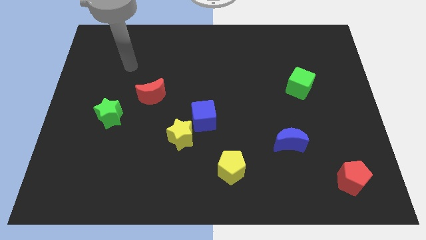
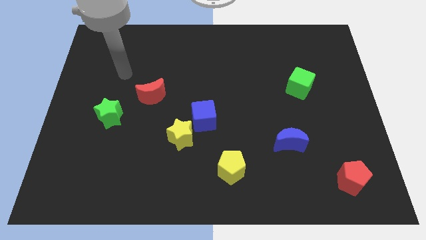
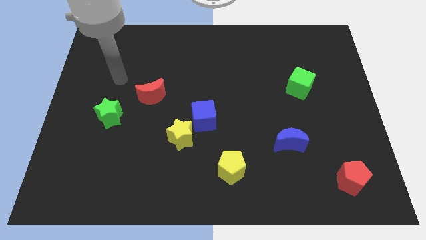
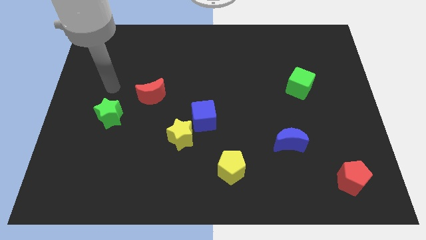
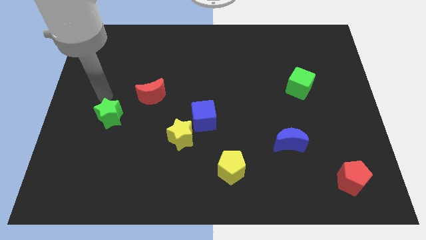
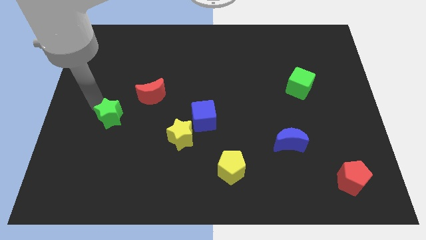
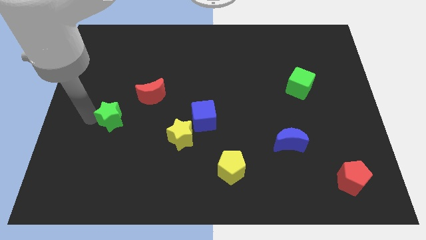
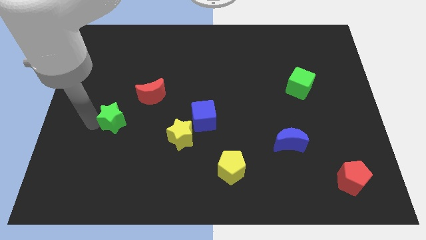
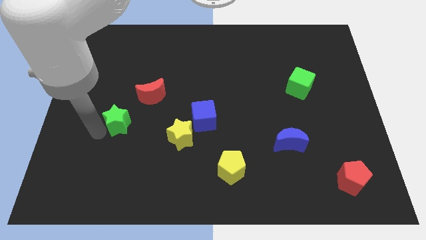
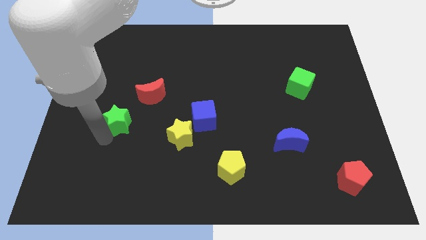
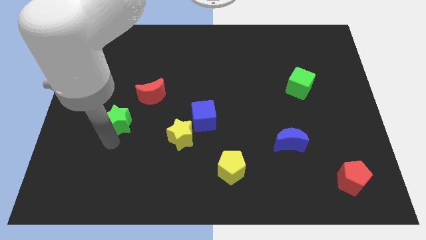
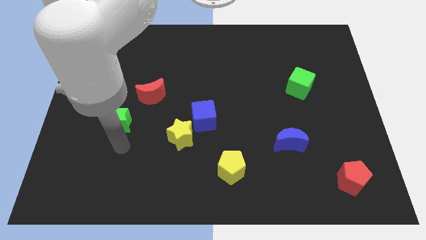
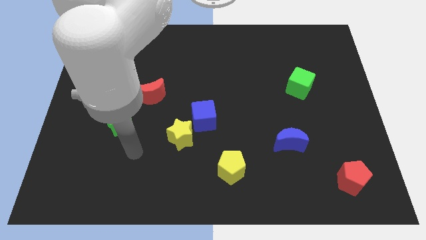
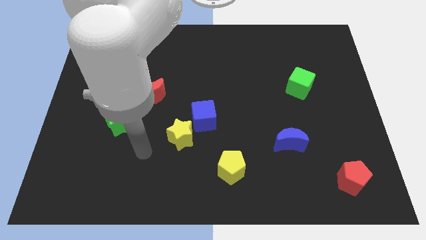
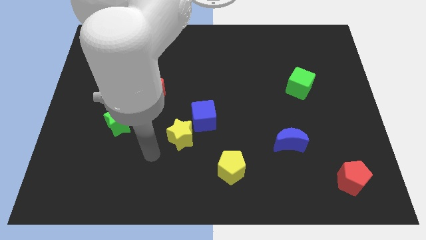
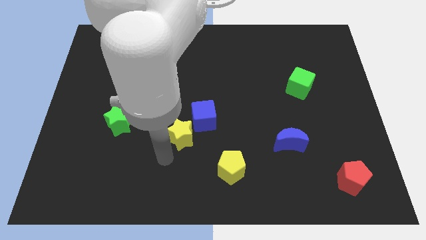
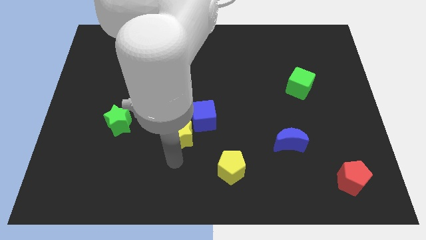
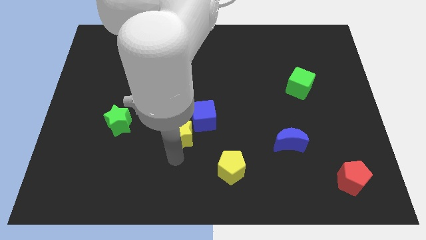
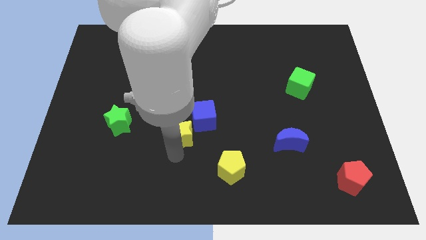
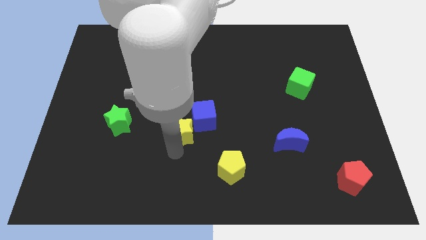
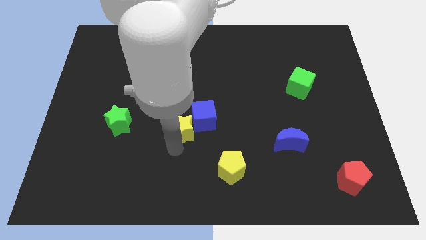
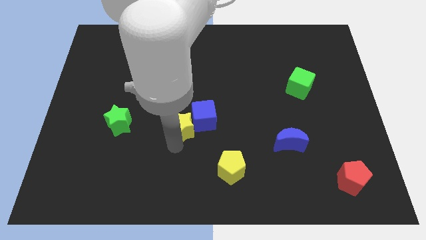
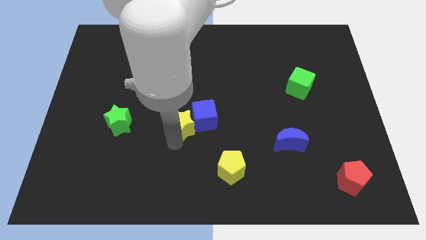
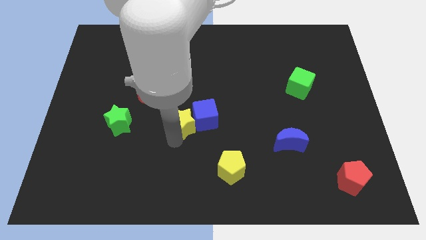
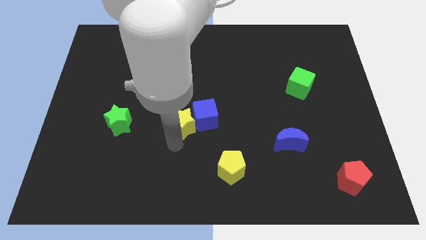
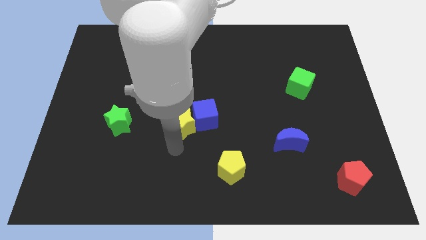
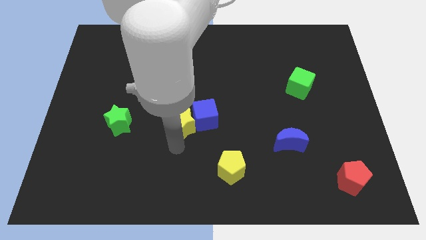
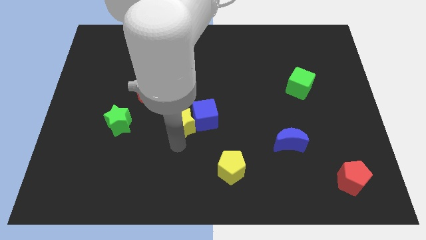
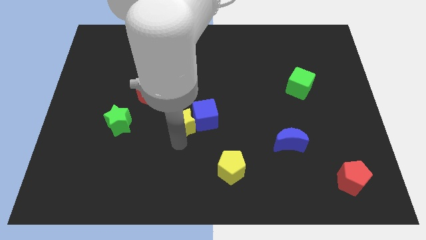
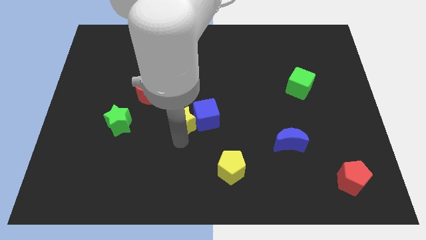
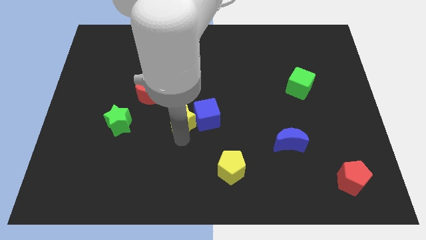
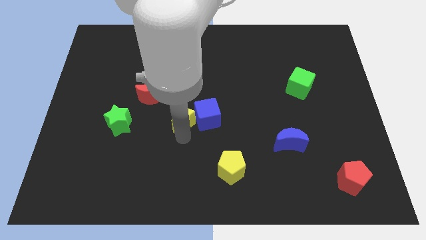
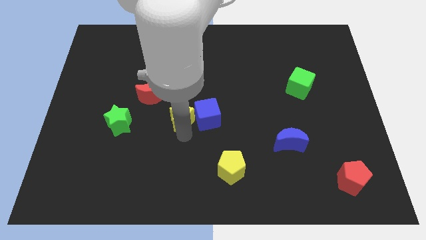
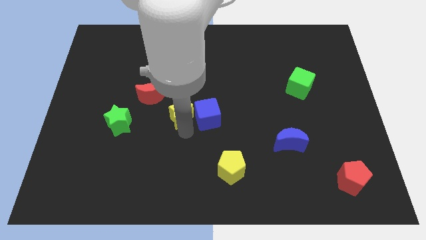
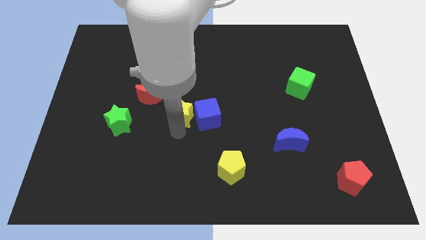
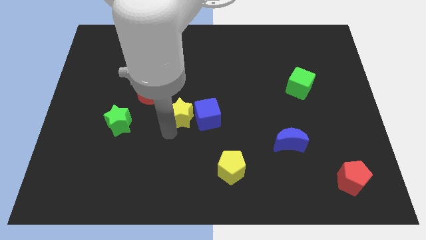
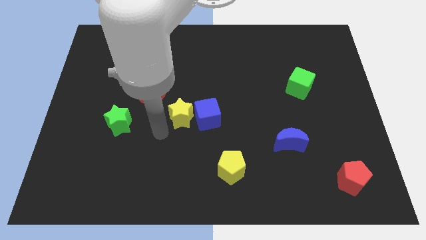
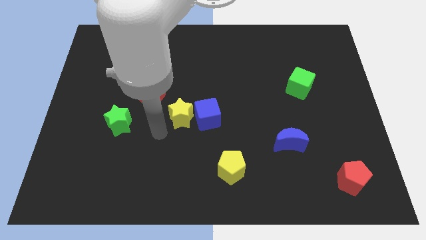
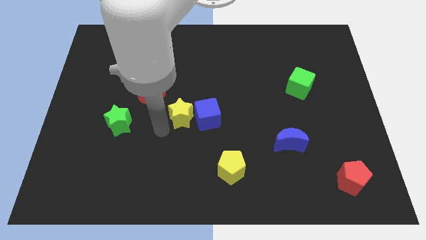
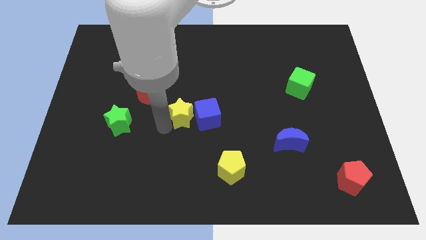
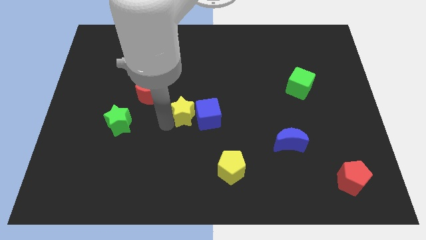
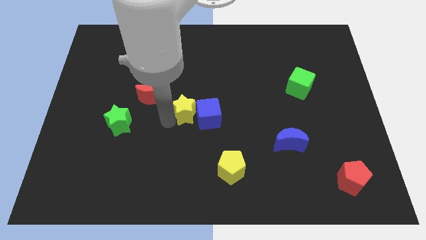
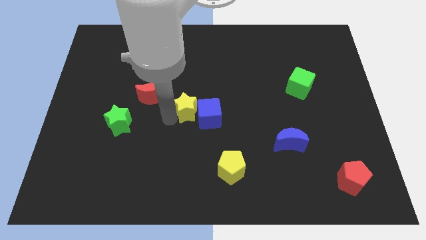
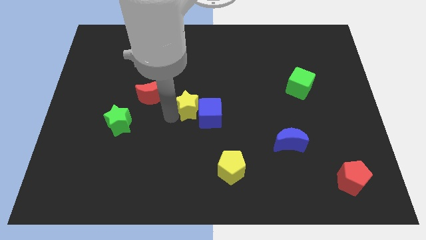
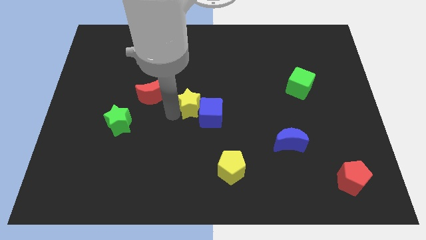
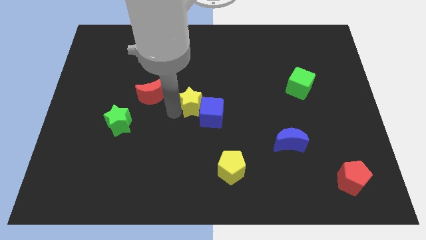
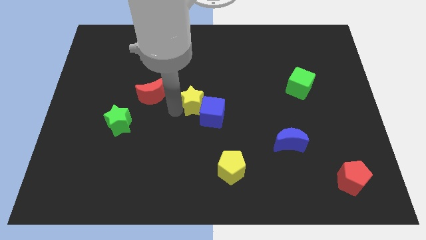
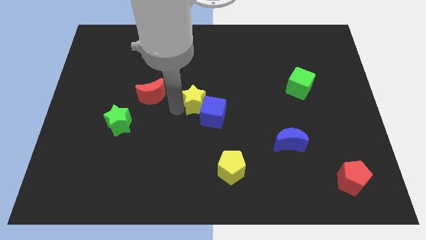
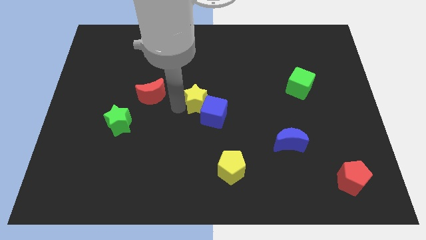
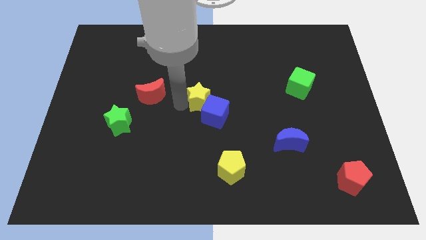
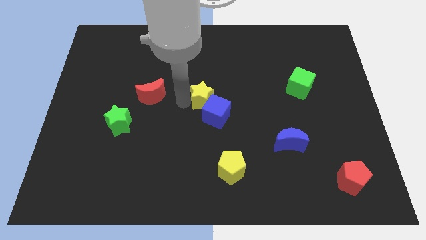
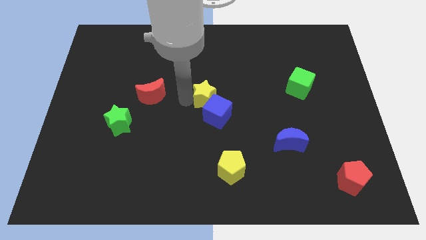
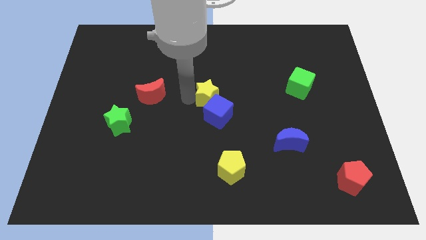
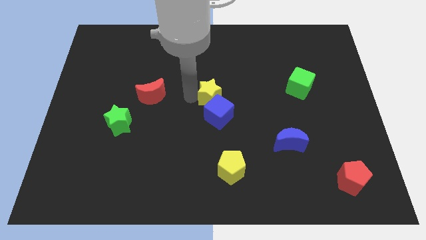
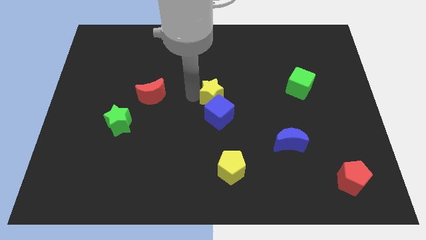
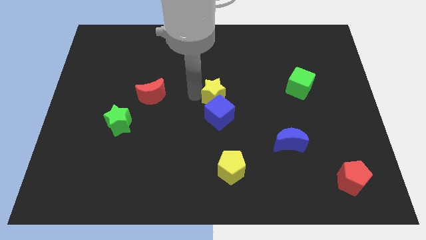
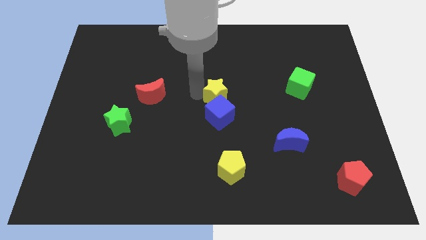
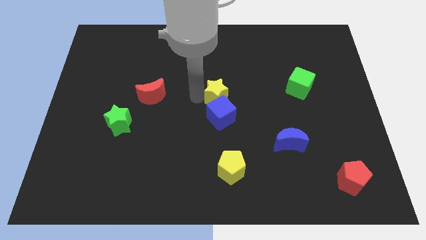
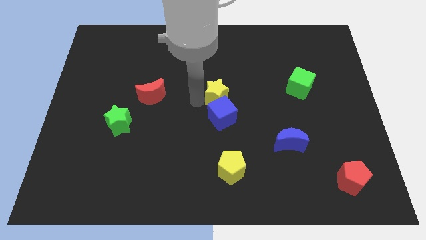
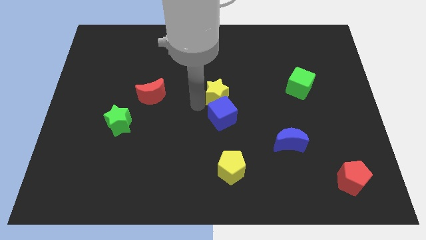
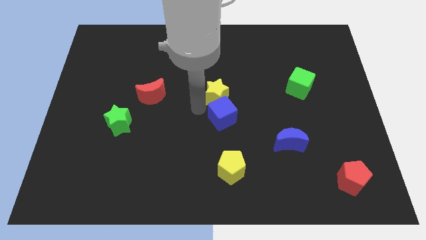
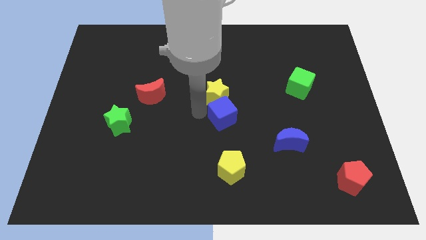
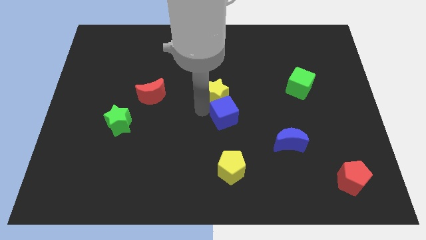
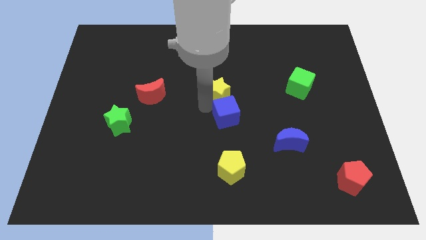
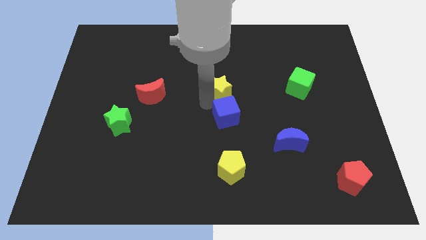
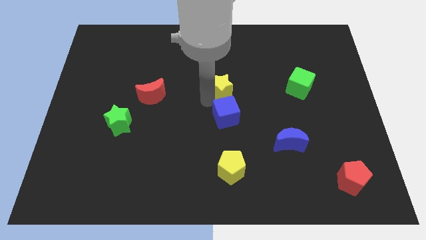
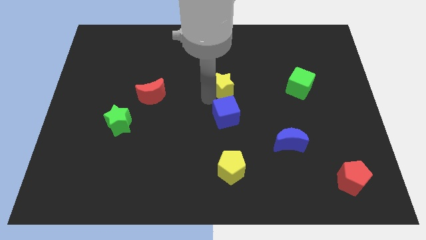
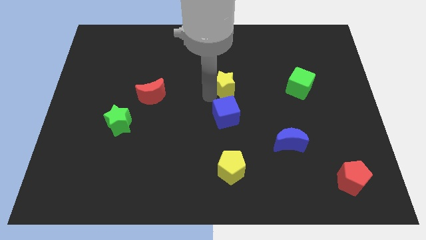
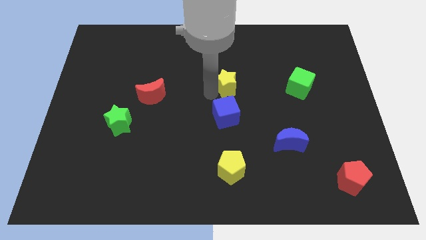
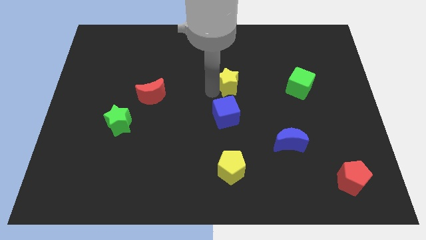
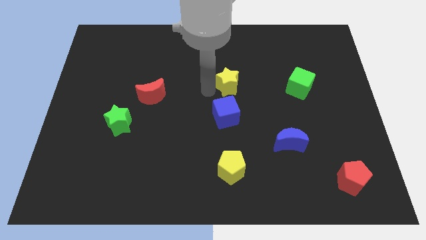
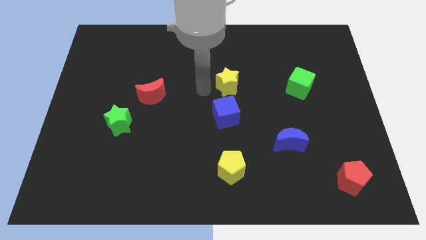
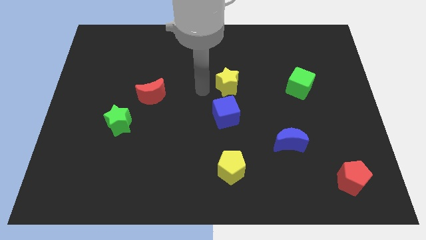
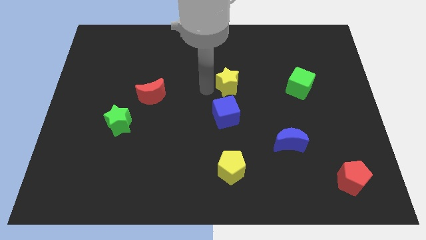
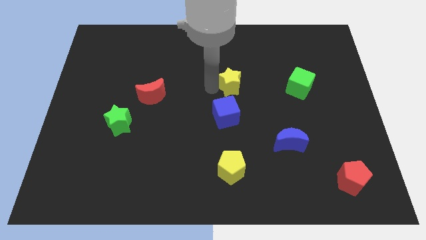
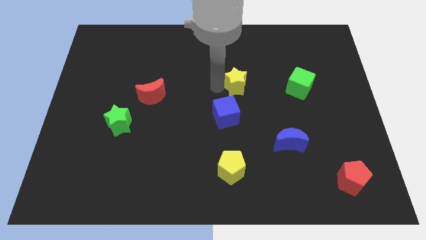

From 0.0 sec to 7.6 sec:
push the yellow star up and right

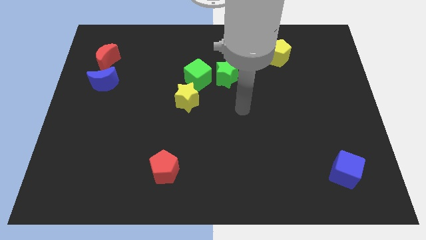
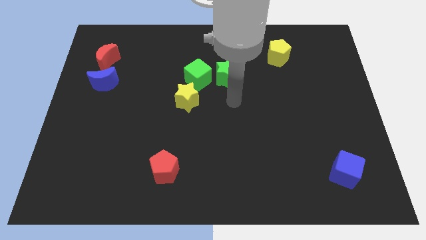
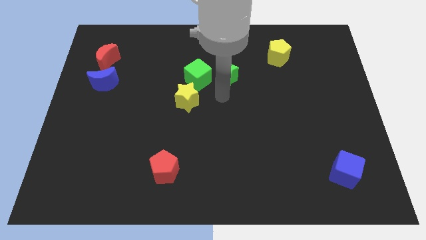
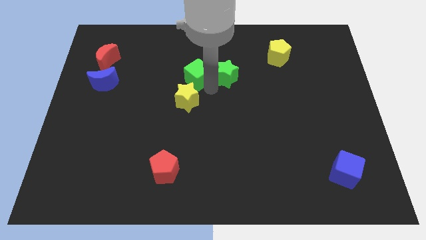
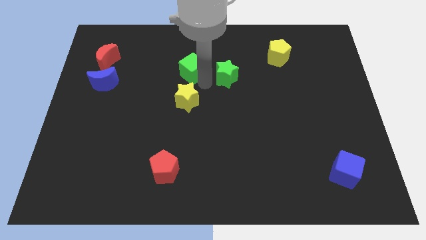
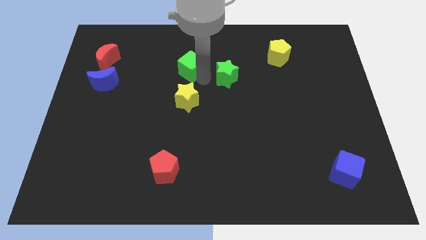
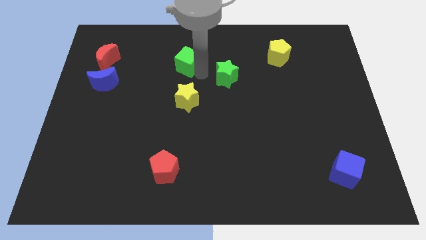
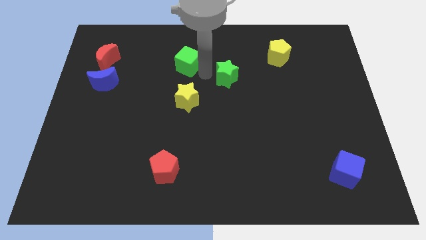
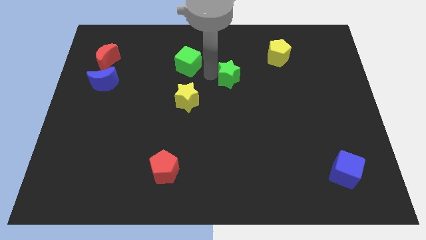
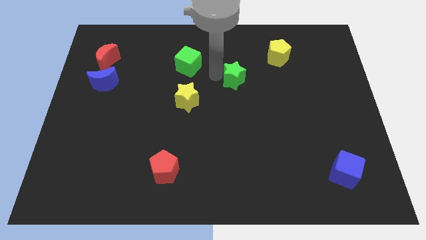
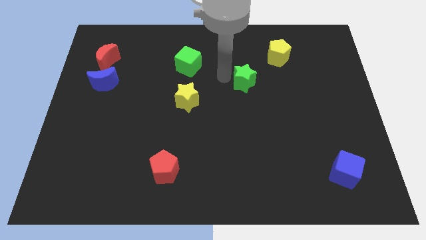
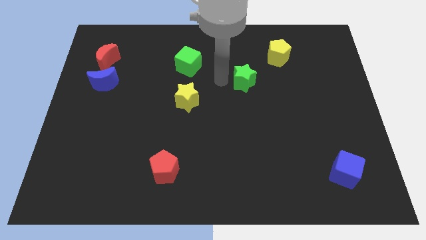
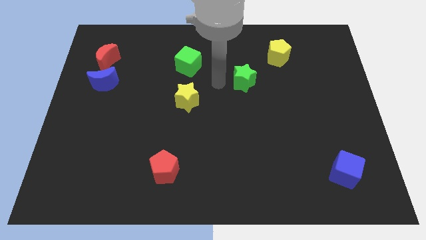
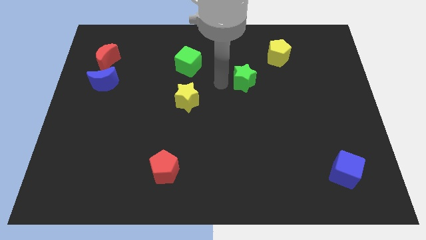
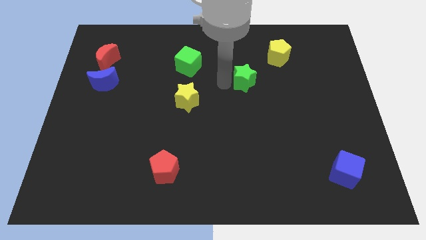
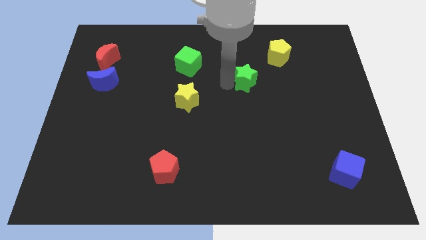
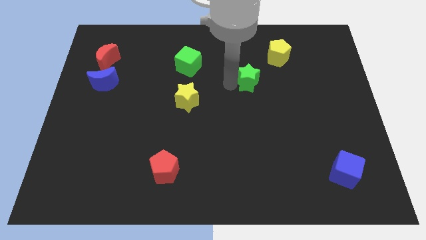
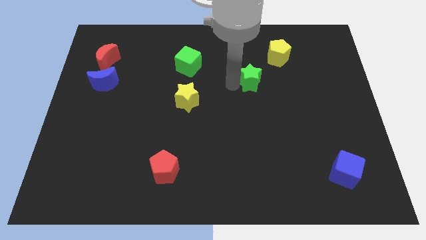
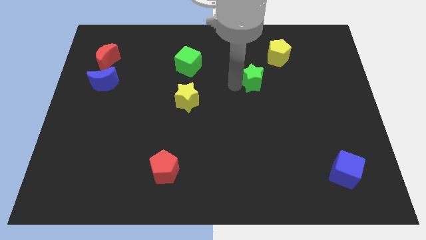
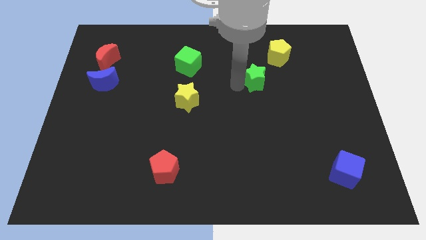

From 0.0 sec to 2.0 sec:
push the green star right a little
